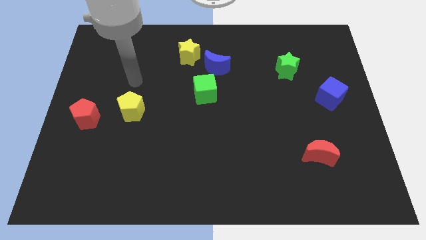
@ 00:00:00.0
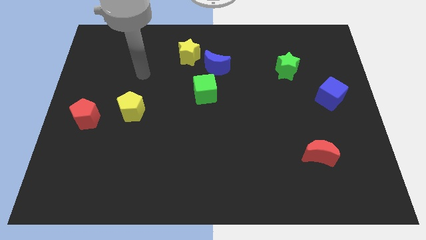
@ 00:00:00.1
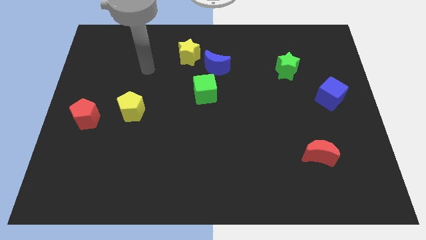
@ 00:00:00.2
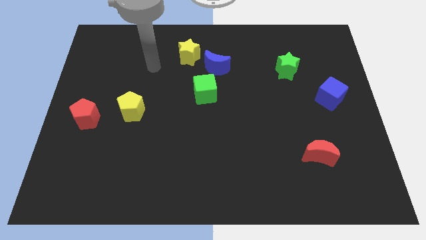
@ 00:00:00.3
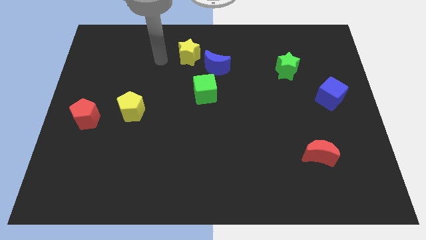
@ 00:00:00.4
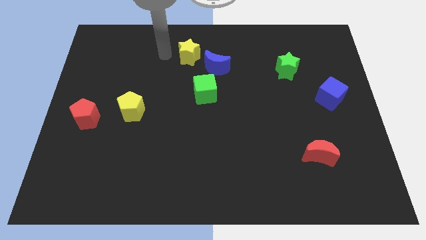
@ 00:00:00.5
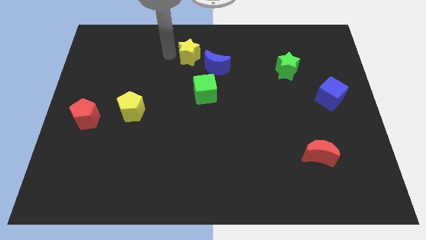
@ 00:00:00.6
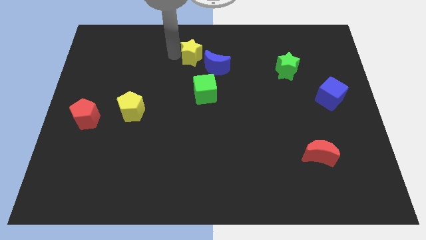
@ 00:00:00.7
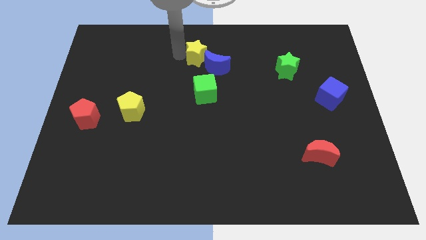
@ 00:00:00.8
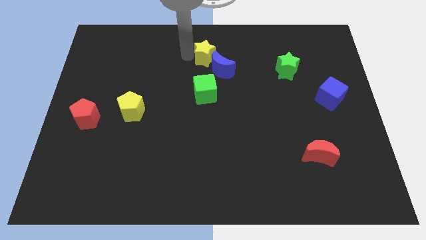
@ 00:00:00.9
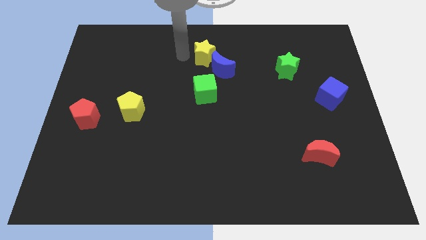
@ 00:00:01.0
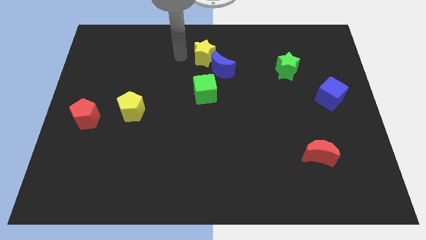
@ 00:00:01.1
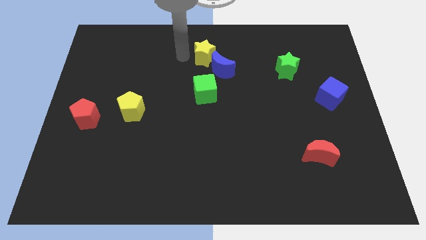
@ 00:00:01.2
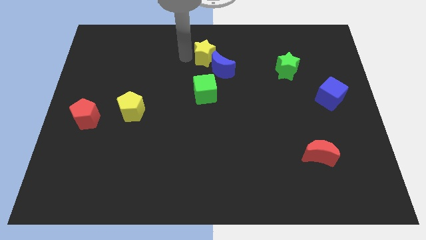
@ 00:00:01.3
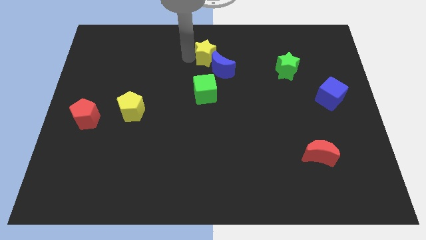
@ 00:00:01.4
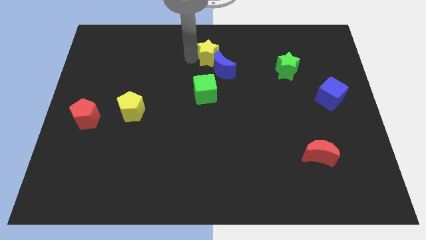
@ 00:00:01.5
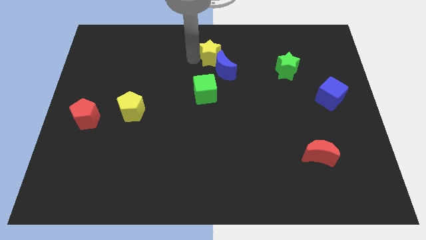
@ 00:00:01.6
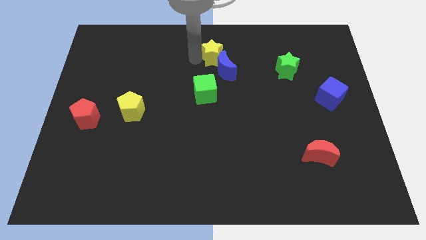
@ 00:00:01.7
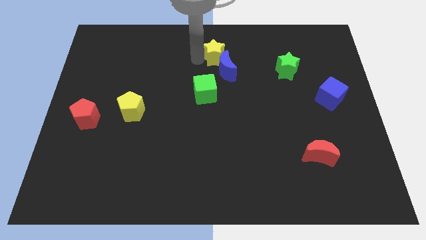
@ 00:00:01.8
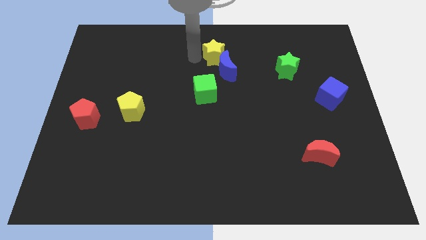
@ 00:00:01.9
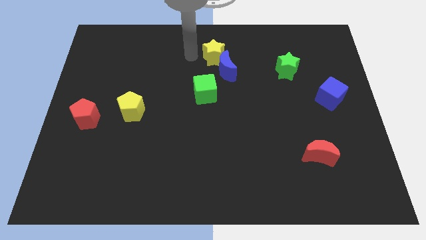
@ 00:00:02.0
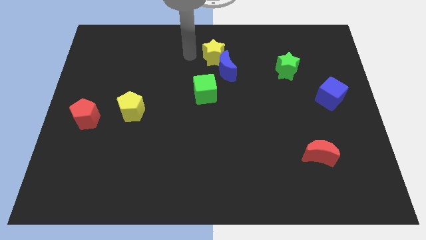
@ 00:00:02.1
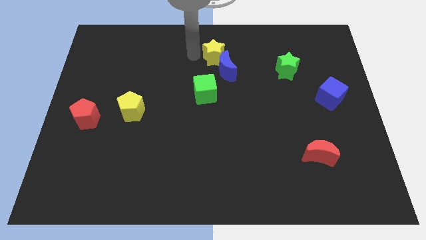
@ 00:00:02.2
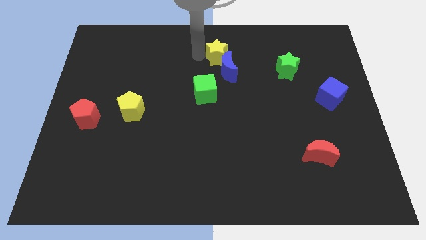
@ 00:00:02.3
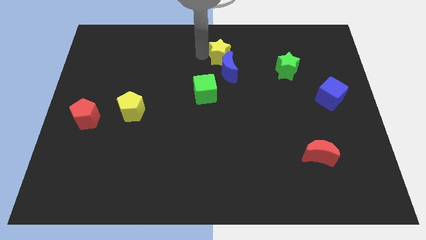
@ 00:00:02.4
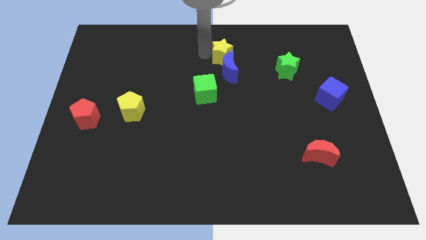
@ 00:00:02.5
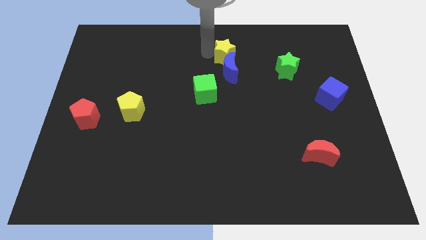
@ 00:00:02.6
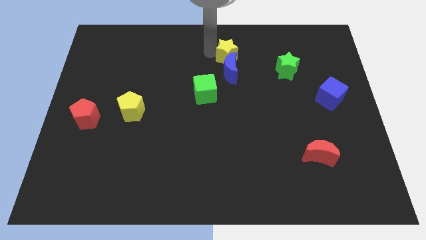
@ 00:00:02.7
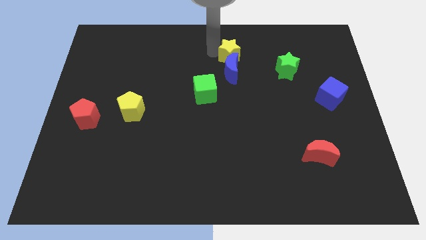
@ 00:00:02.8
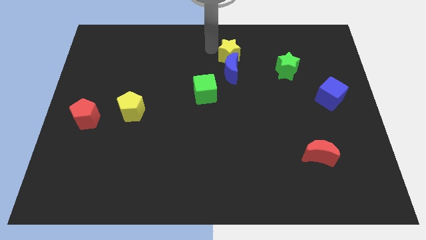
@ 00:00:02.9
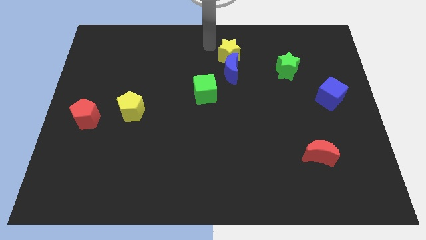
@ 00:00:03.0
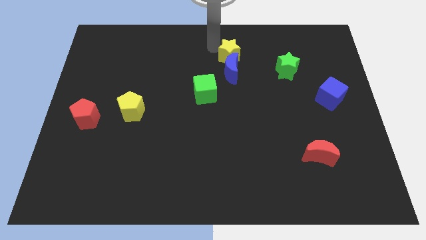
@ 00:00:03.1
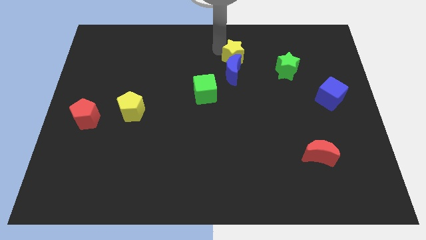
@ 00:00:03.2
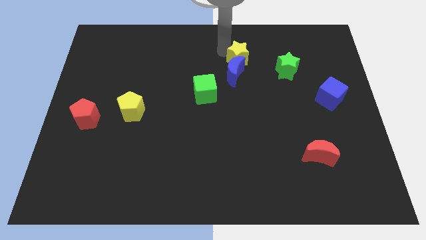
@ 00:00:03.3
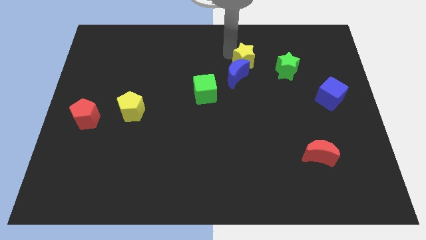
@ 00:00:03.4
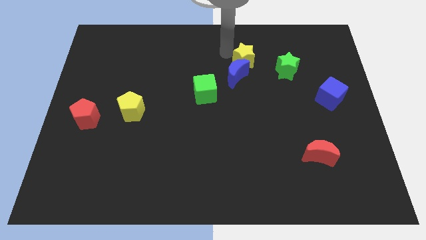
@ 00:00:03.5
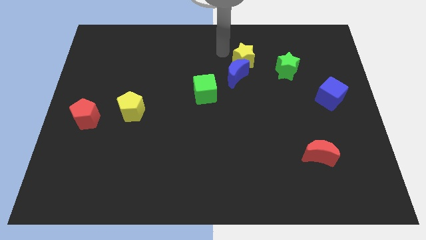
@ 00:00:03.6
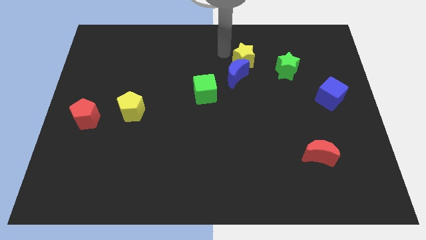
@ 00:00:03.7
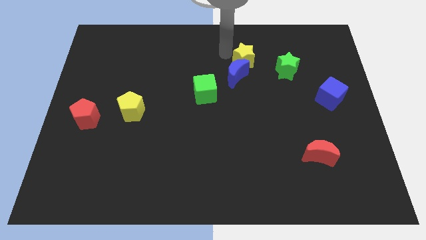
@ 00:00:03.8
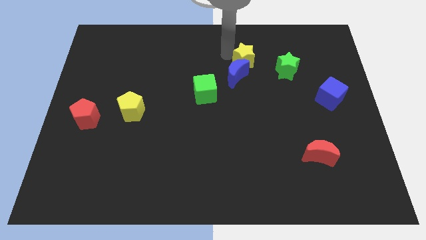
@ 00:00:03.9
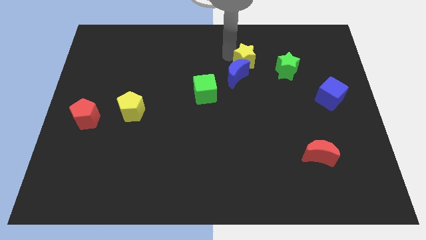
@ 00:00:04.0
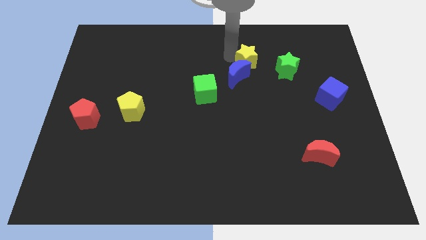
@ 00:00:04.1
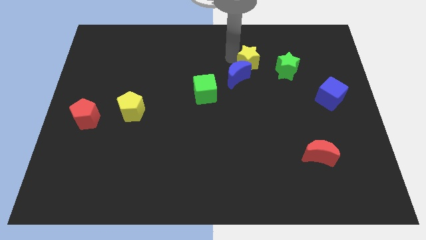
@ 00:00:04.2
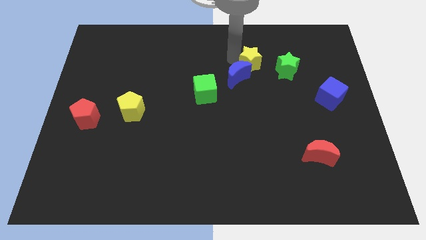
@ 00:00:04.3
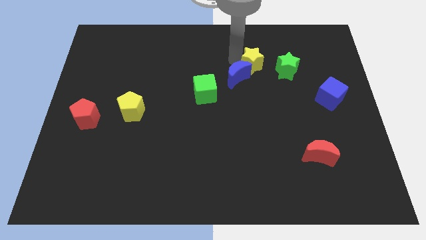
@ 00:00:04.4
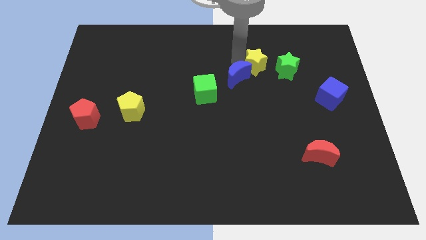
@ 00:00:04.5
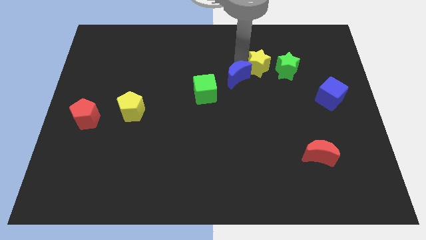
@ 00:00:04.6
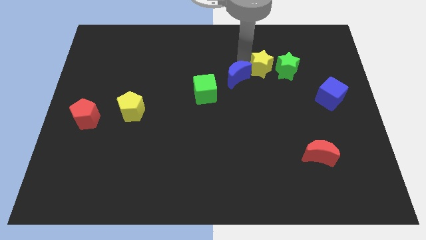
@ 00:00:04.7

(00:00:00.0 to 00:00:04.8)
put the yellow star next to the green star

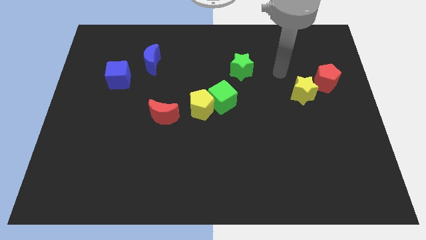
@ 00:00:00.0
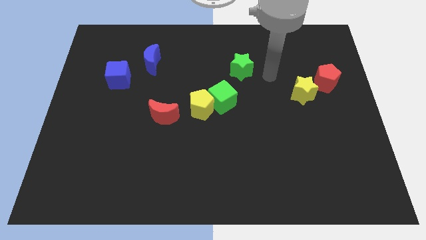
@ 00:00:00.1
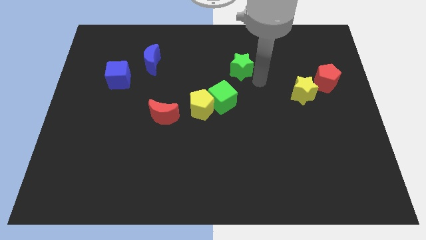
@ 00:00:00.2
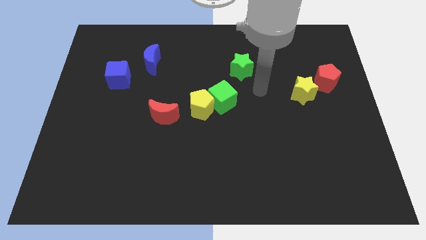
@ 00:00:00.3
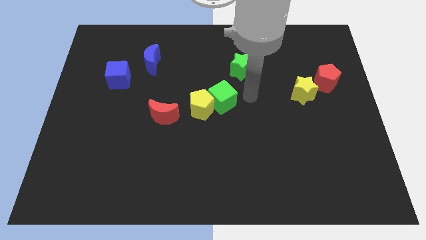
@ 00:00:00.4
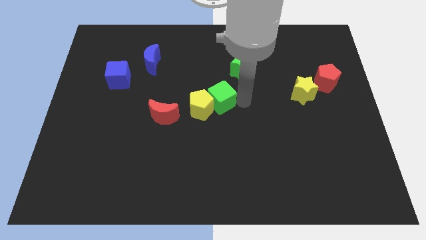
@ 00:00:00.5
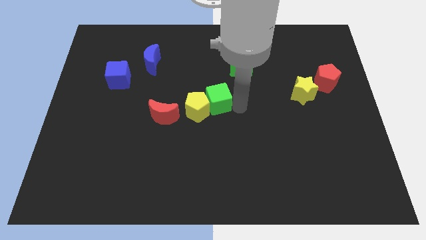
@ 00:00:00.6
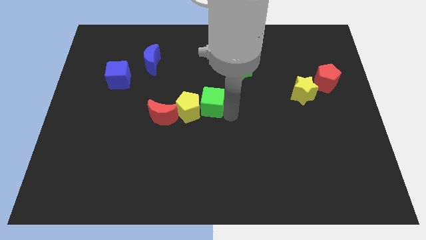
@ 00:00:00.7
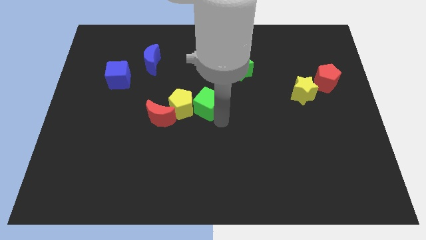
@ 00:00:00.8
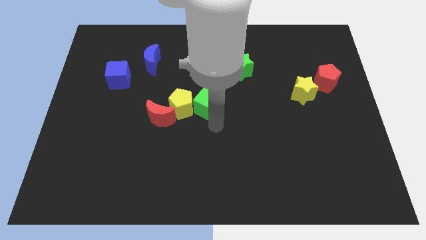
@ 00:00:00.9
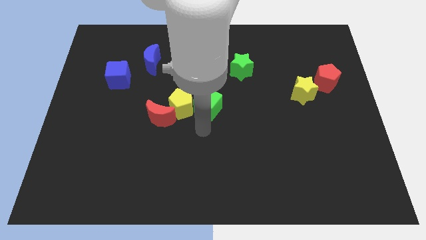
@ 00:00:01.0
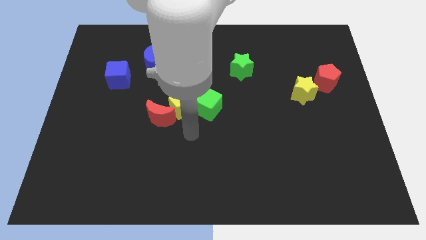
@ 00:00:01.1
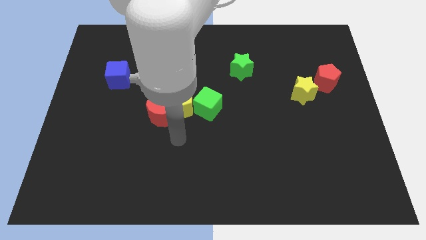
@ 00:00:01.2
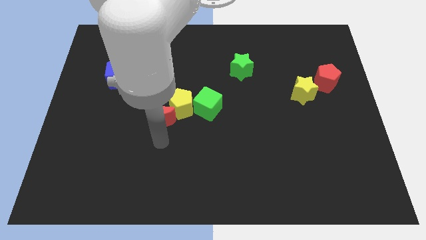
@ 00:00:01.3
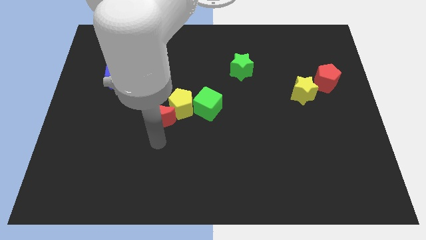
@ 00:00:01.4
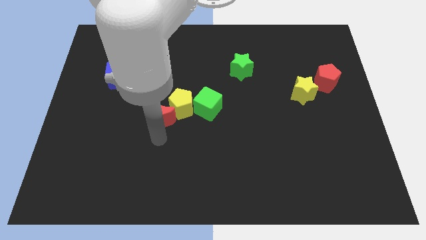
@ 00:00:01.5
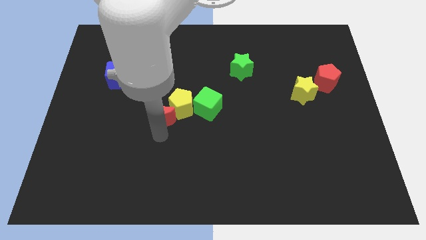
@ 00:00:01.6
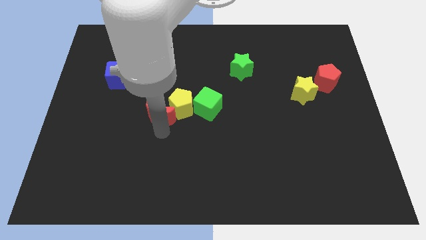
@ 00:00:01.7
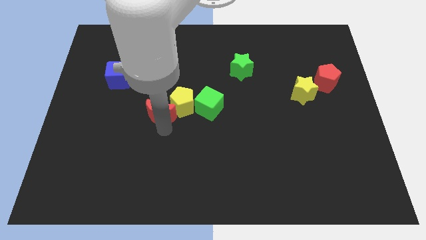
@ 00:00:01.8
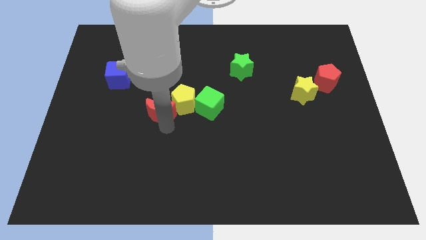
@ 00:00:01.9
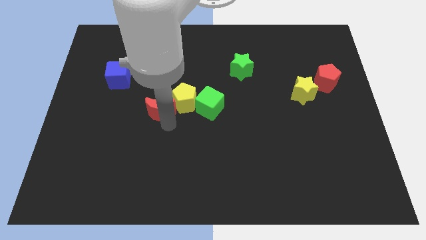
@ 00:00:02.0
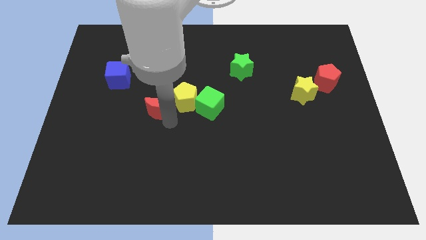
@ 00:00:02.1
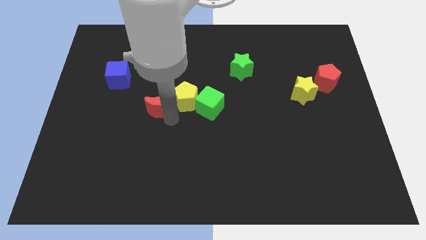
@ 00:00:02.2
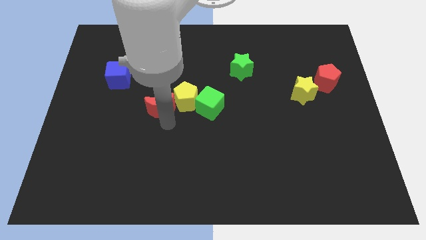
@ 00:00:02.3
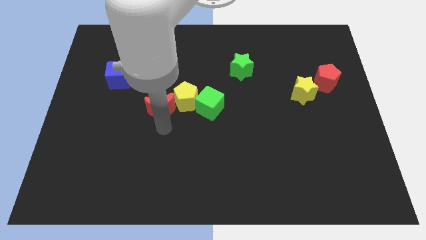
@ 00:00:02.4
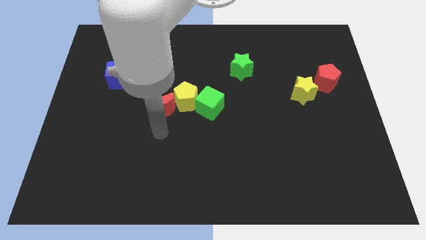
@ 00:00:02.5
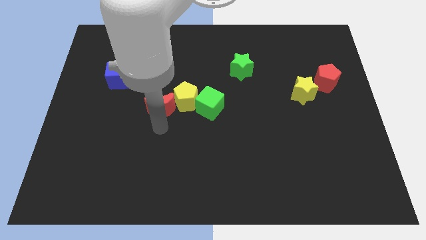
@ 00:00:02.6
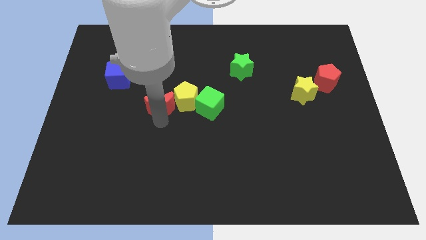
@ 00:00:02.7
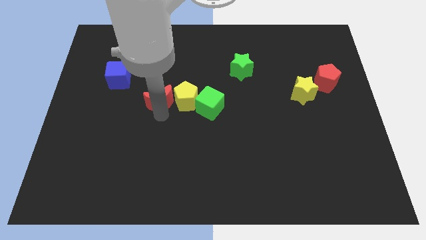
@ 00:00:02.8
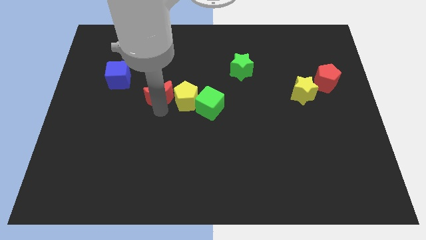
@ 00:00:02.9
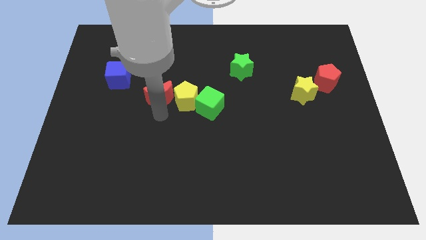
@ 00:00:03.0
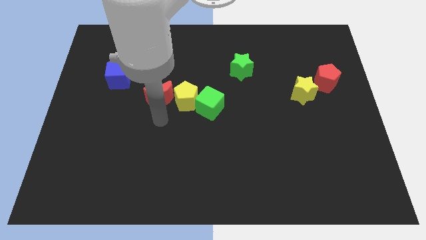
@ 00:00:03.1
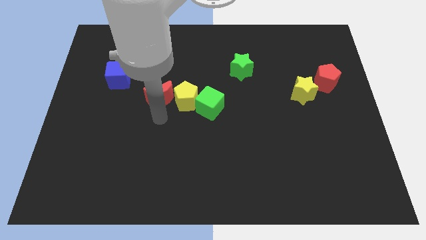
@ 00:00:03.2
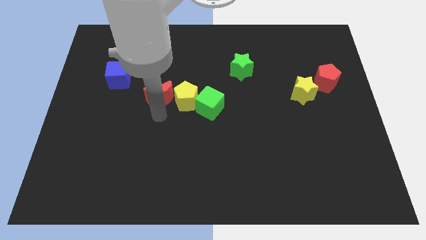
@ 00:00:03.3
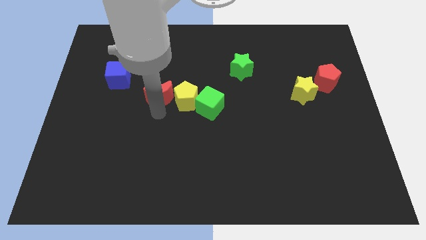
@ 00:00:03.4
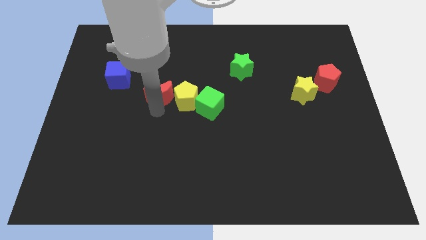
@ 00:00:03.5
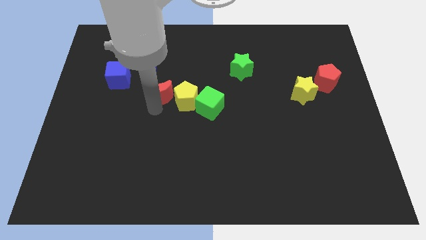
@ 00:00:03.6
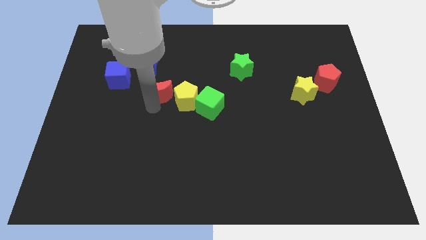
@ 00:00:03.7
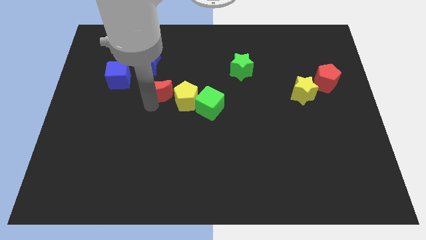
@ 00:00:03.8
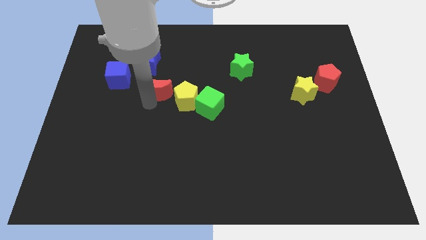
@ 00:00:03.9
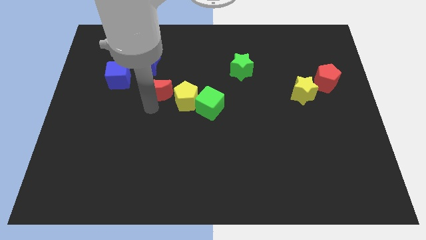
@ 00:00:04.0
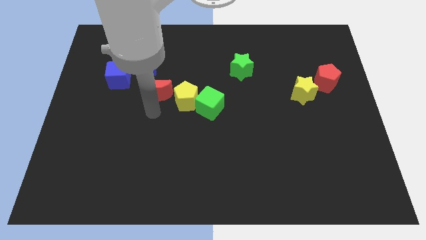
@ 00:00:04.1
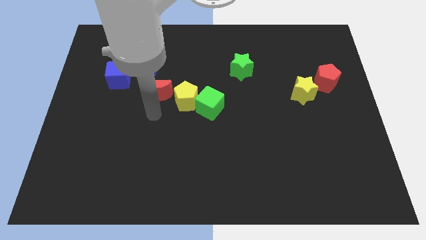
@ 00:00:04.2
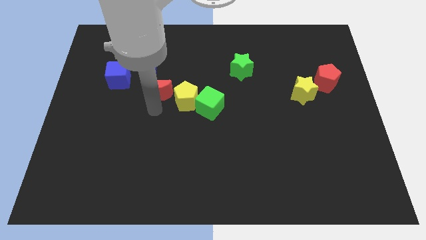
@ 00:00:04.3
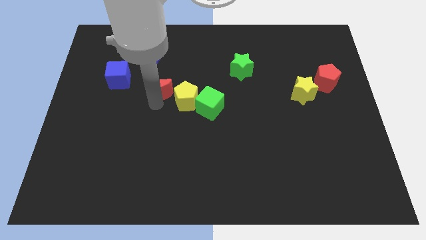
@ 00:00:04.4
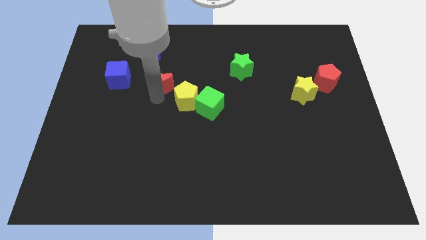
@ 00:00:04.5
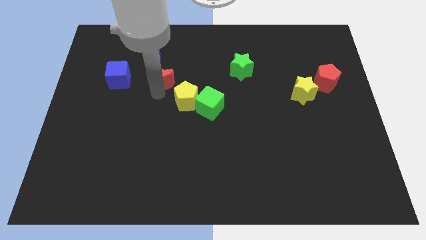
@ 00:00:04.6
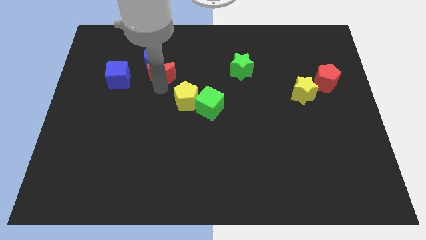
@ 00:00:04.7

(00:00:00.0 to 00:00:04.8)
push the red moon to the blue moon
